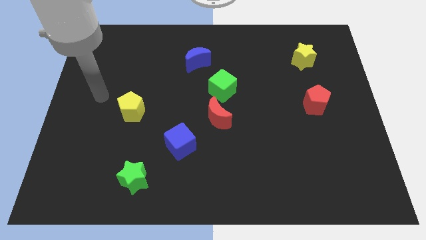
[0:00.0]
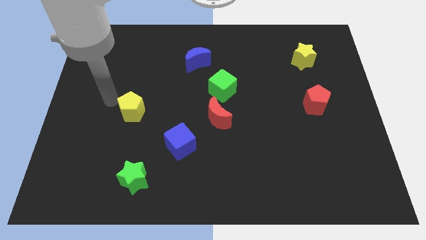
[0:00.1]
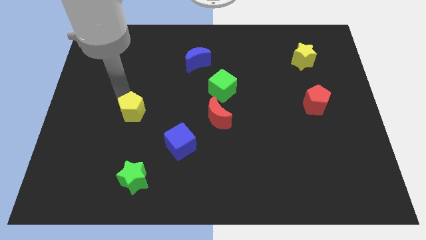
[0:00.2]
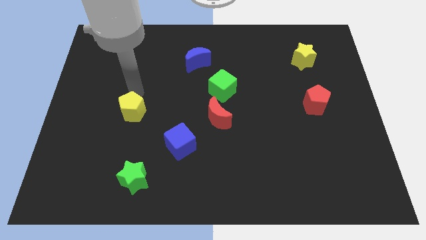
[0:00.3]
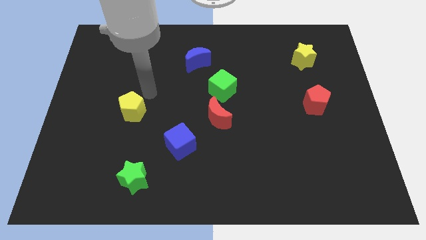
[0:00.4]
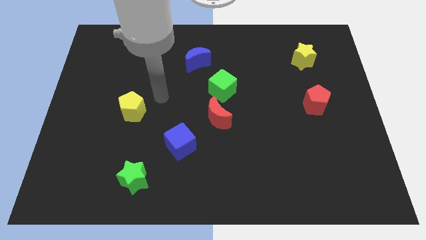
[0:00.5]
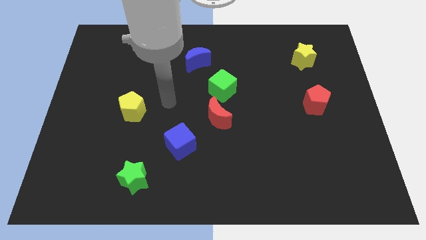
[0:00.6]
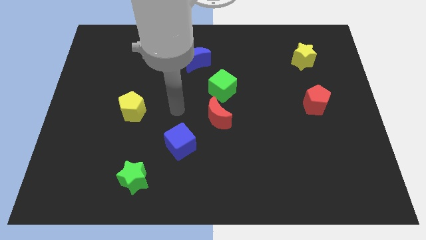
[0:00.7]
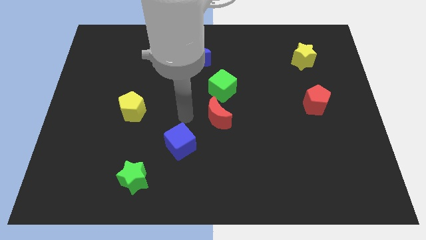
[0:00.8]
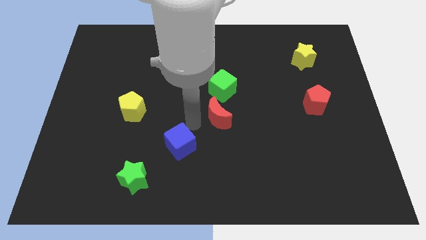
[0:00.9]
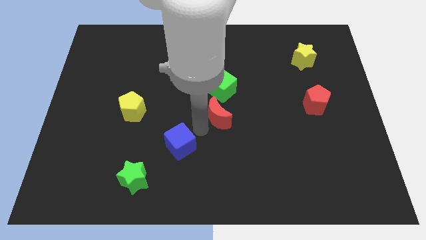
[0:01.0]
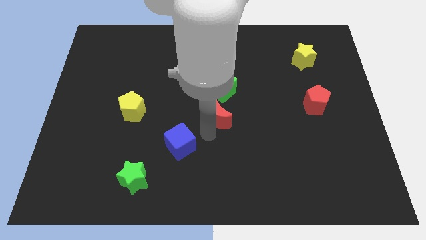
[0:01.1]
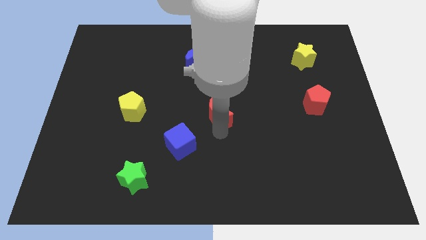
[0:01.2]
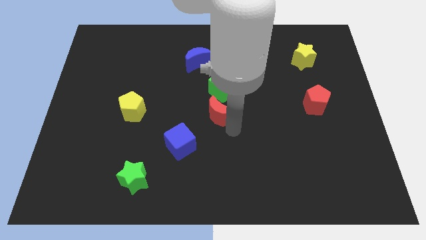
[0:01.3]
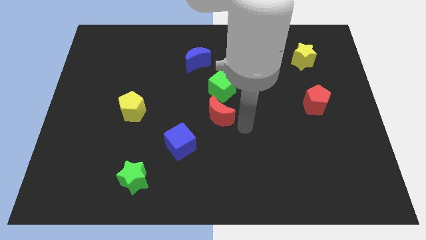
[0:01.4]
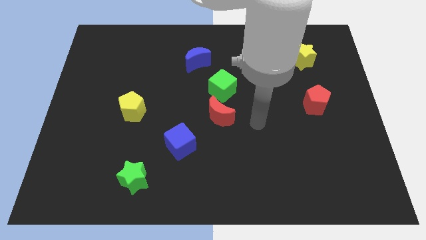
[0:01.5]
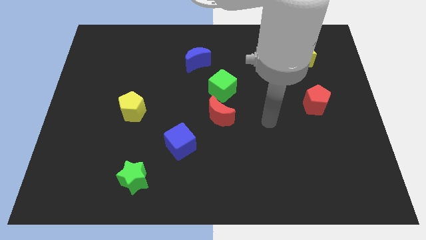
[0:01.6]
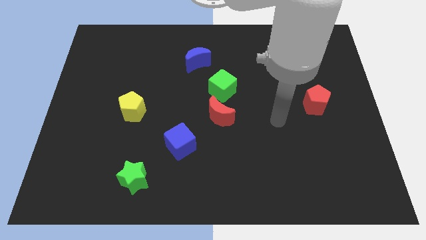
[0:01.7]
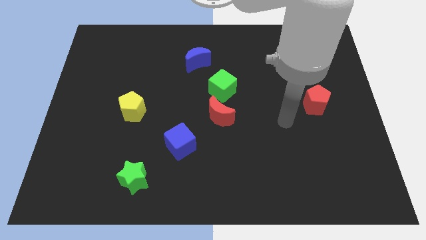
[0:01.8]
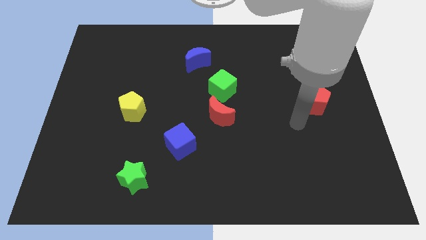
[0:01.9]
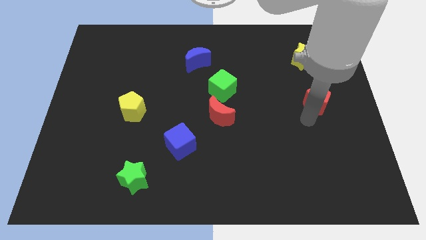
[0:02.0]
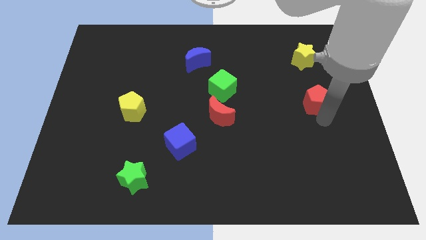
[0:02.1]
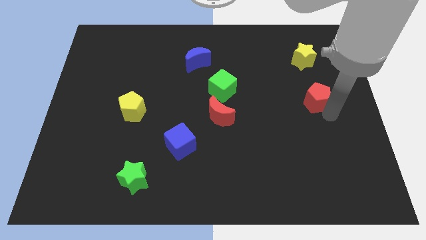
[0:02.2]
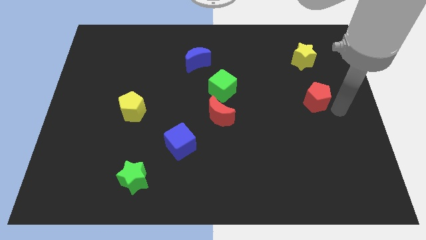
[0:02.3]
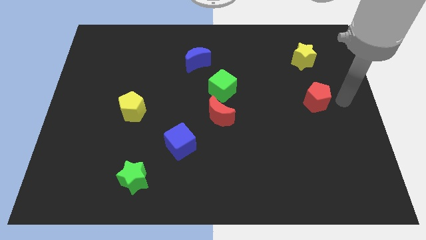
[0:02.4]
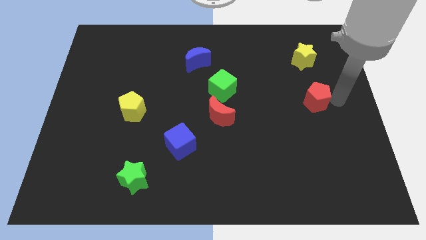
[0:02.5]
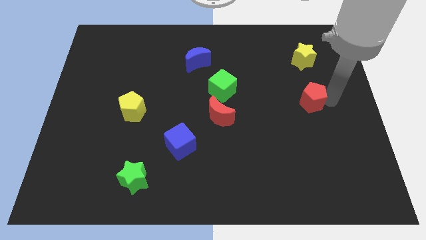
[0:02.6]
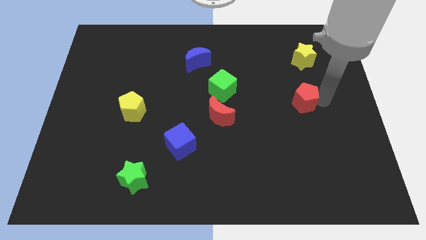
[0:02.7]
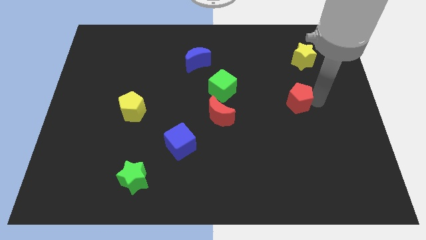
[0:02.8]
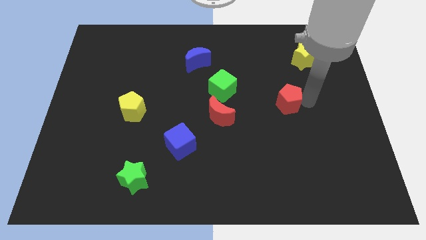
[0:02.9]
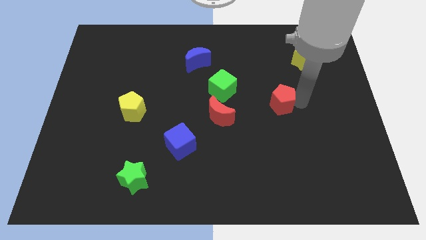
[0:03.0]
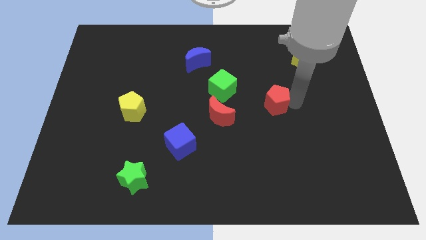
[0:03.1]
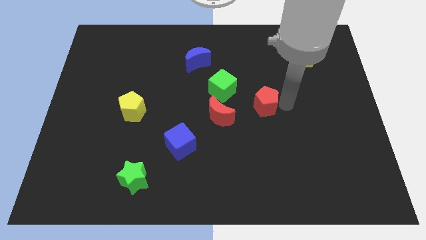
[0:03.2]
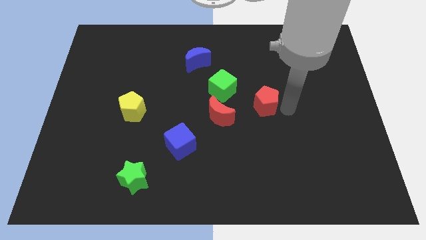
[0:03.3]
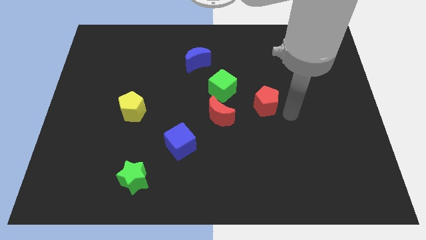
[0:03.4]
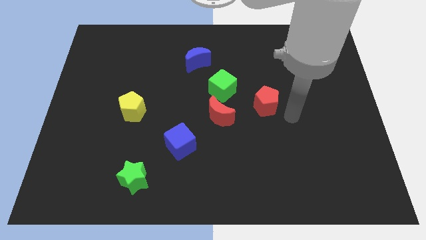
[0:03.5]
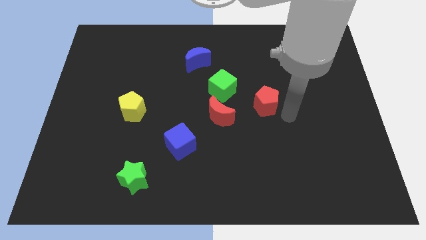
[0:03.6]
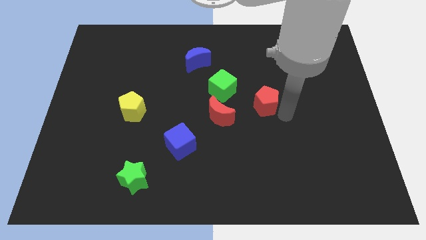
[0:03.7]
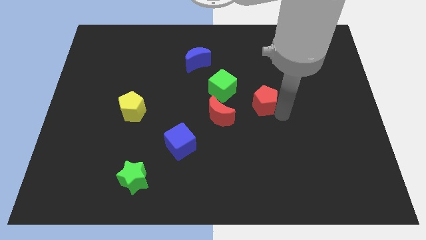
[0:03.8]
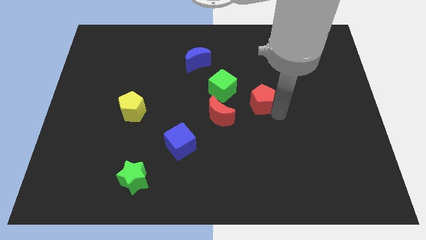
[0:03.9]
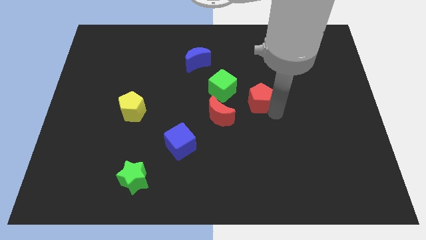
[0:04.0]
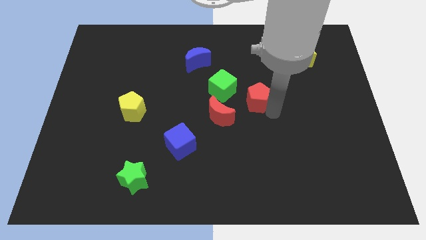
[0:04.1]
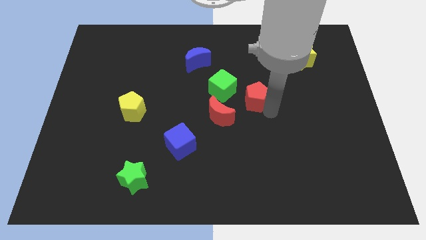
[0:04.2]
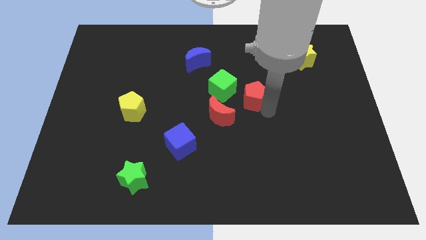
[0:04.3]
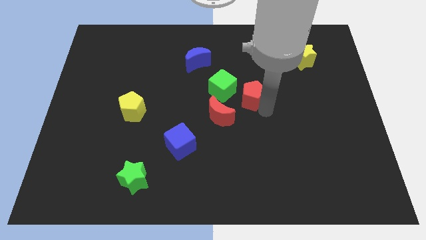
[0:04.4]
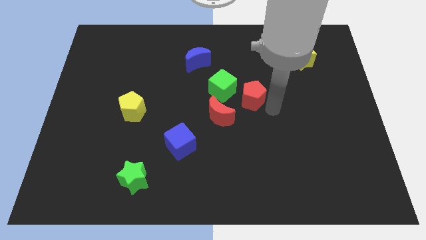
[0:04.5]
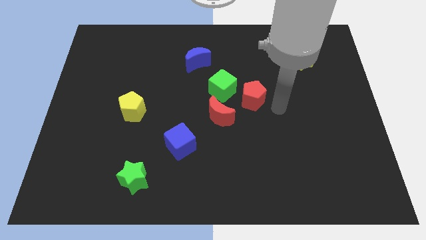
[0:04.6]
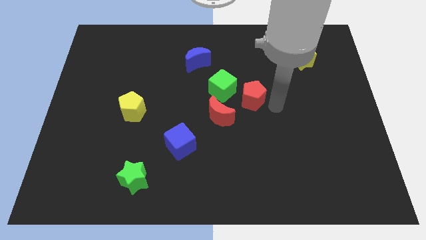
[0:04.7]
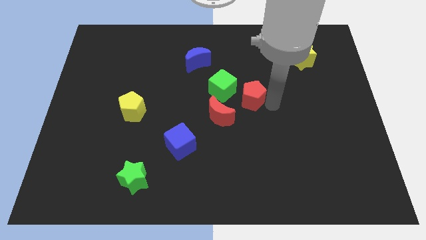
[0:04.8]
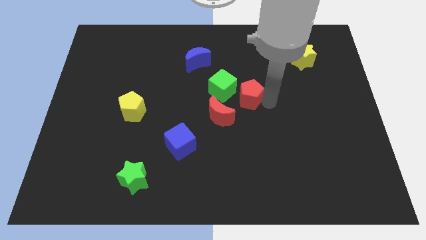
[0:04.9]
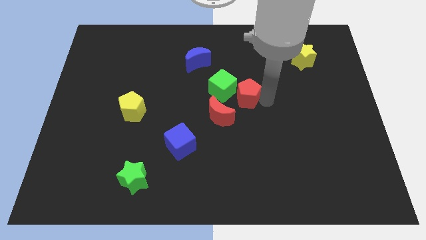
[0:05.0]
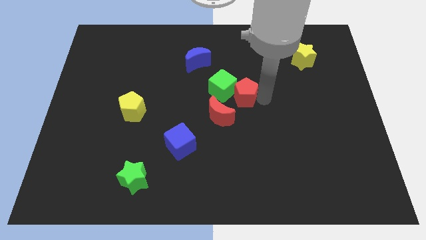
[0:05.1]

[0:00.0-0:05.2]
slide the red pentagon to the green cube

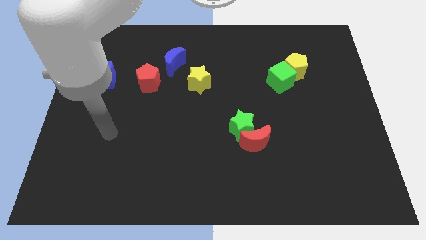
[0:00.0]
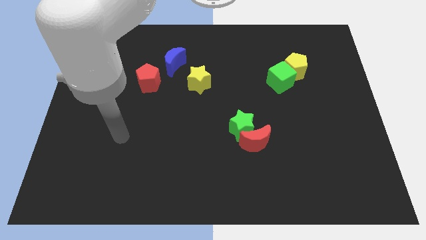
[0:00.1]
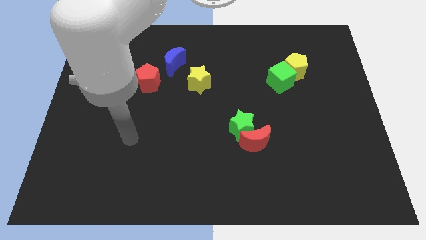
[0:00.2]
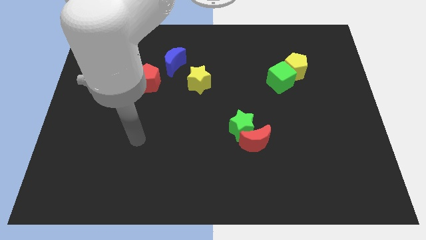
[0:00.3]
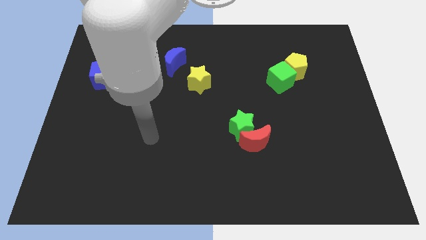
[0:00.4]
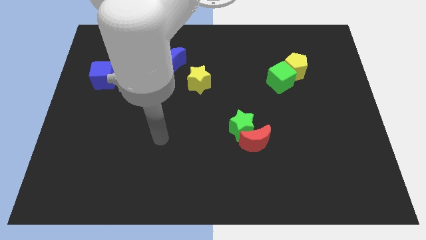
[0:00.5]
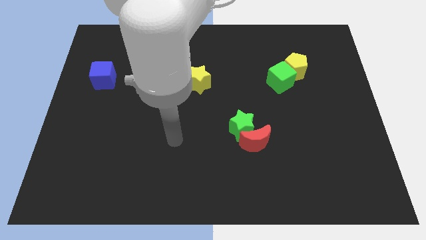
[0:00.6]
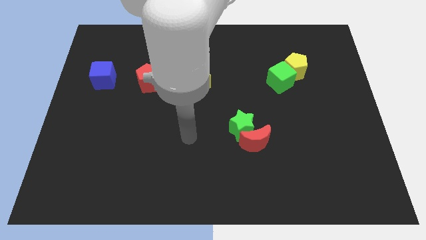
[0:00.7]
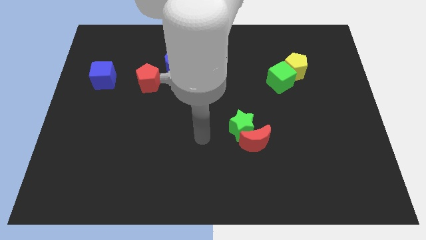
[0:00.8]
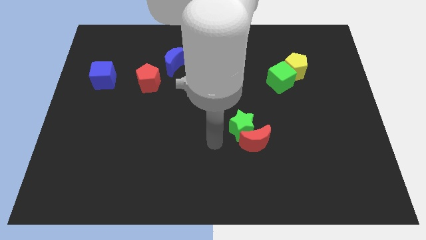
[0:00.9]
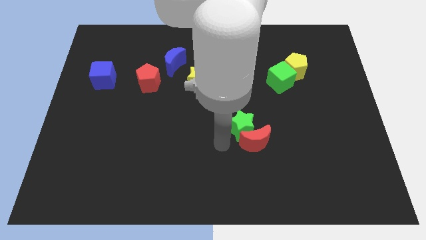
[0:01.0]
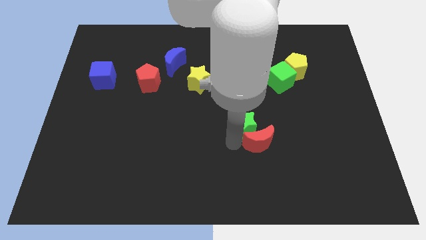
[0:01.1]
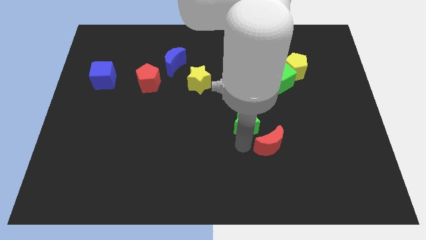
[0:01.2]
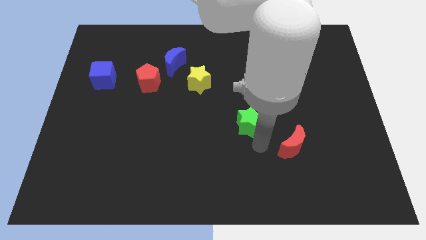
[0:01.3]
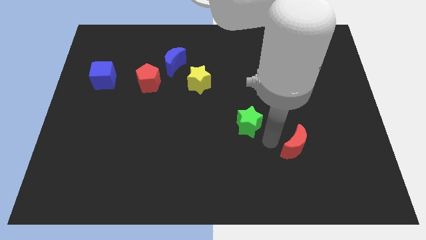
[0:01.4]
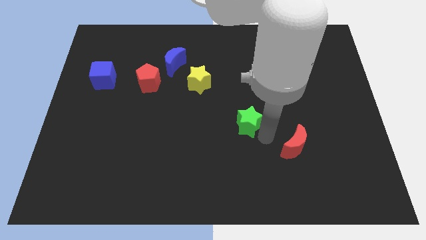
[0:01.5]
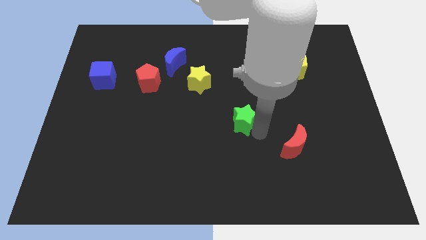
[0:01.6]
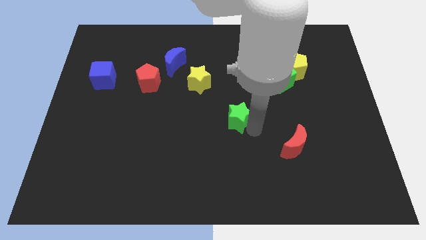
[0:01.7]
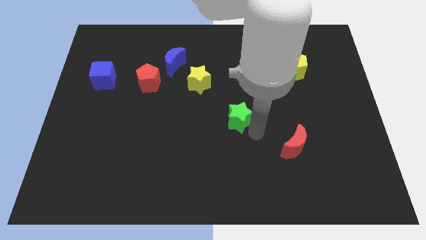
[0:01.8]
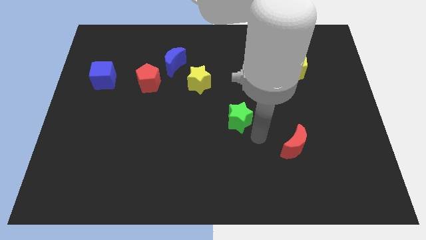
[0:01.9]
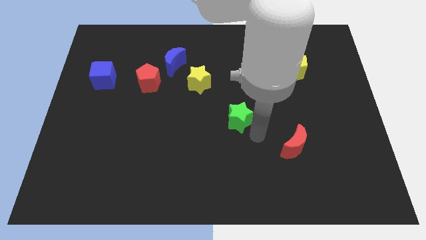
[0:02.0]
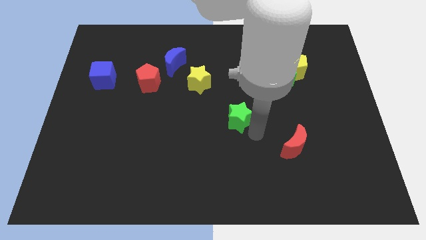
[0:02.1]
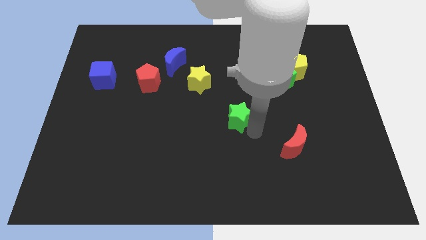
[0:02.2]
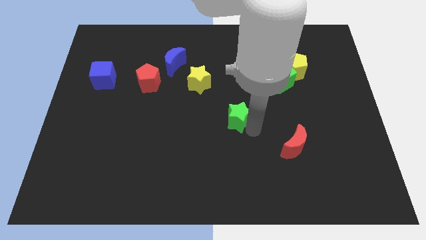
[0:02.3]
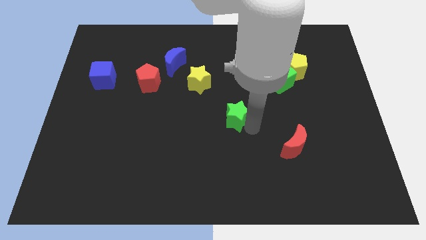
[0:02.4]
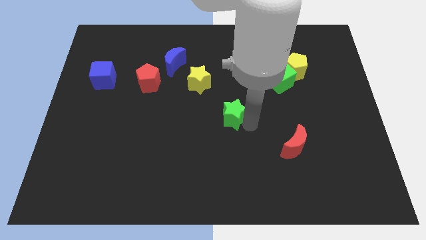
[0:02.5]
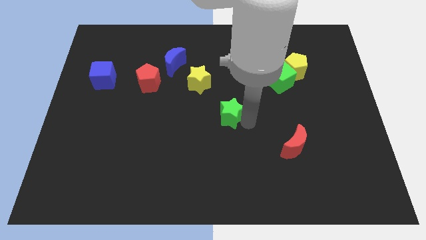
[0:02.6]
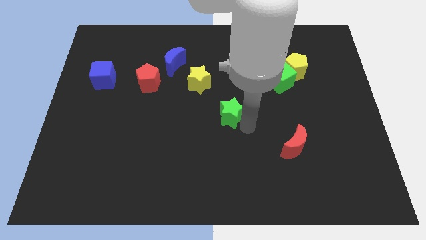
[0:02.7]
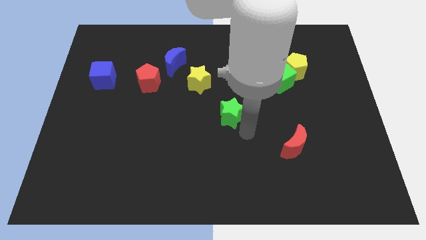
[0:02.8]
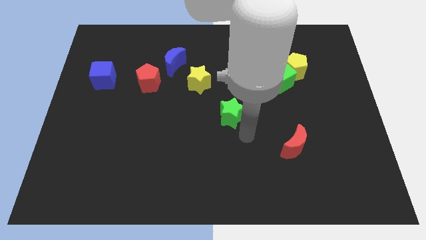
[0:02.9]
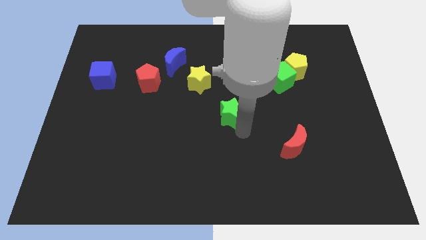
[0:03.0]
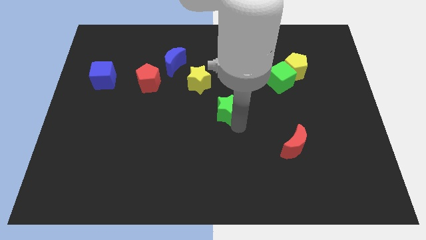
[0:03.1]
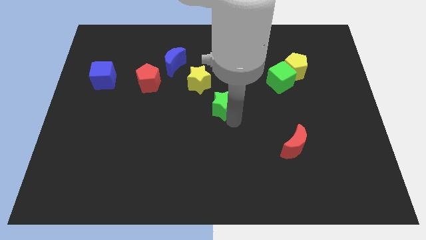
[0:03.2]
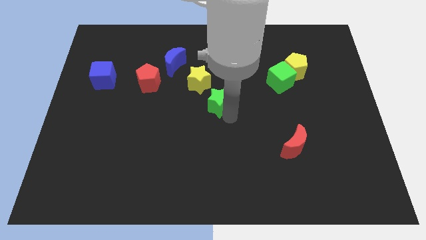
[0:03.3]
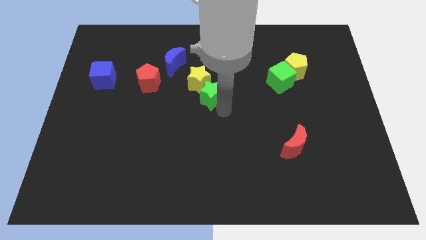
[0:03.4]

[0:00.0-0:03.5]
put the green star next to the yellow star
